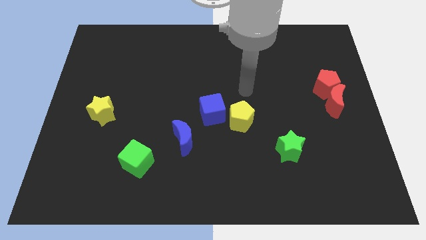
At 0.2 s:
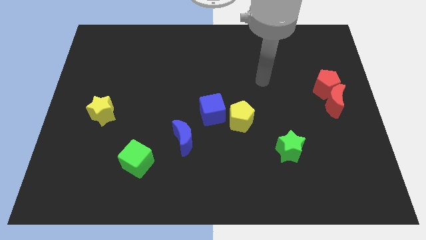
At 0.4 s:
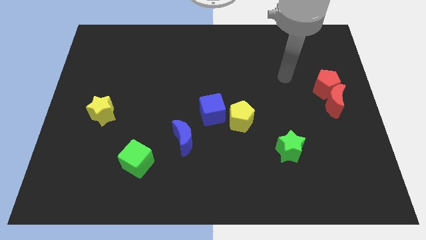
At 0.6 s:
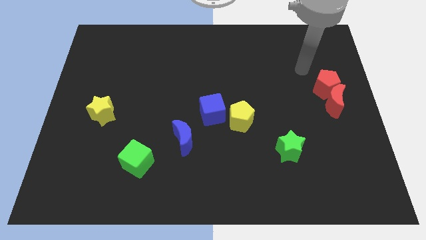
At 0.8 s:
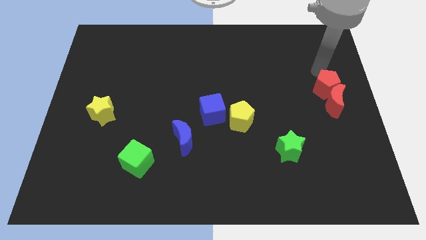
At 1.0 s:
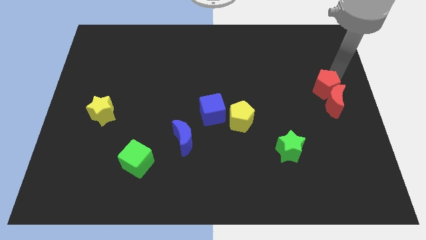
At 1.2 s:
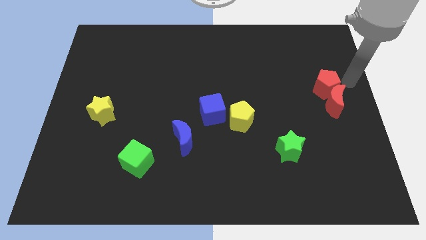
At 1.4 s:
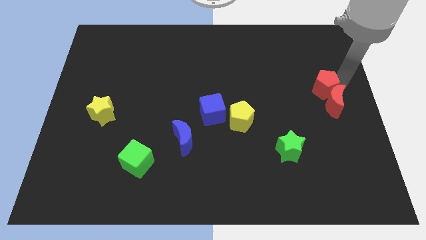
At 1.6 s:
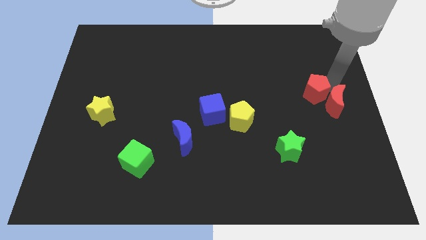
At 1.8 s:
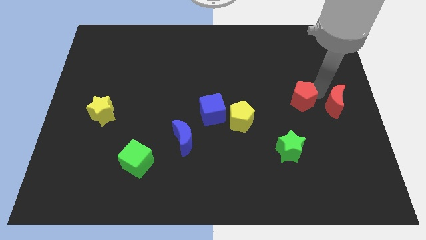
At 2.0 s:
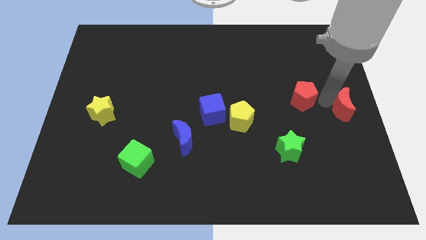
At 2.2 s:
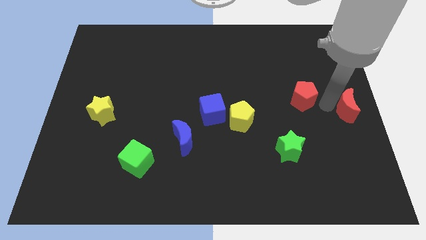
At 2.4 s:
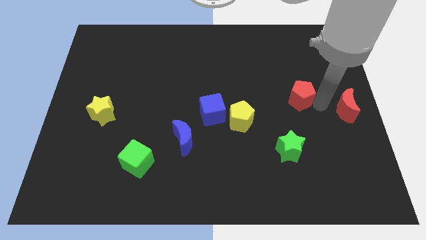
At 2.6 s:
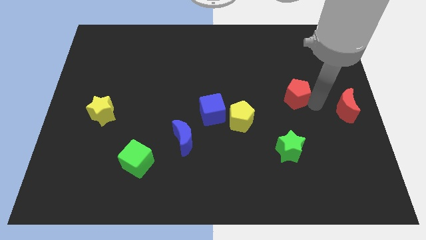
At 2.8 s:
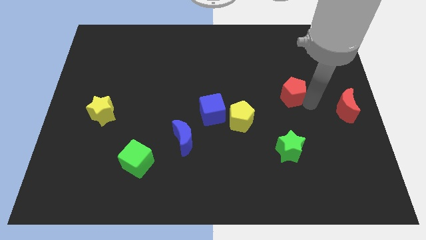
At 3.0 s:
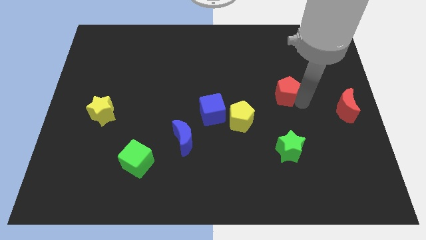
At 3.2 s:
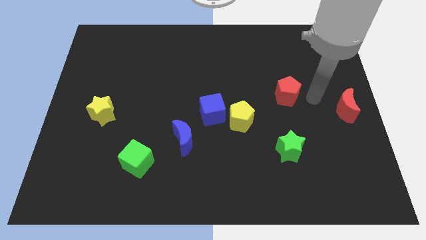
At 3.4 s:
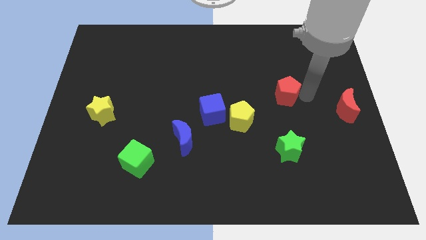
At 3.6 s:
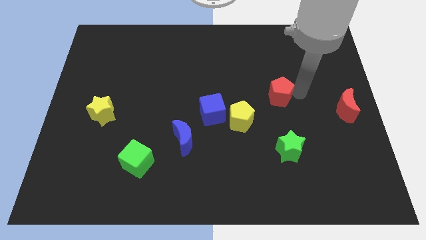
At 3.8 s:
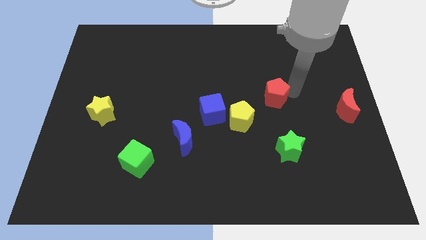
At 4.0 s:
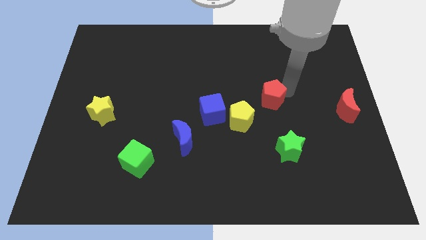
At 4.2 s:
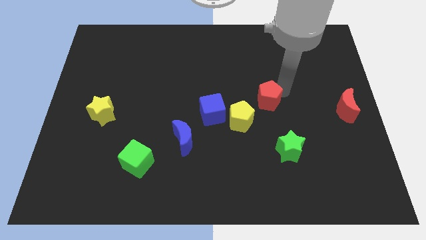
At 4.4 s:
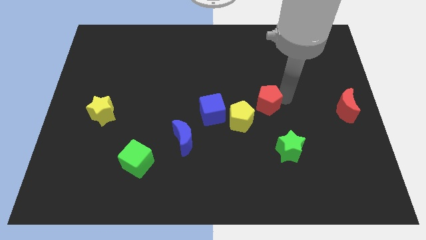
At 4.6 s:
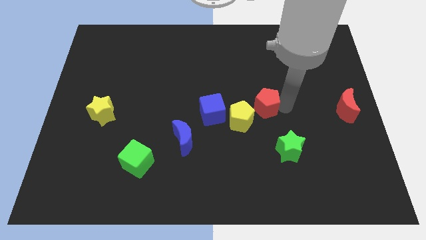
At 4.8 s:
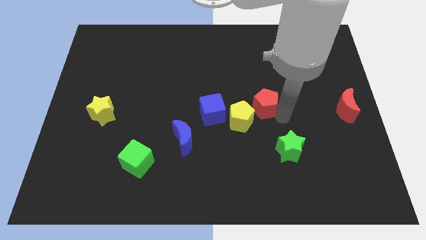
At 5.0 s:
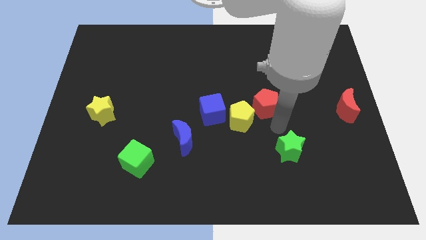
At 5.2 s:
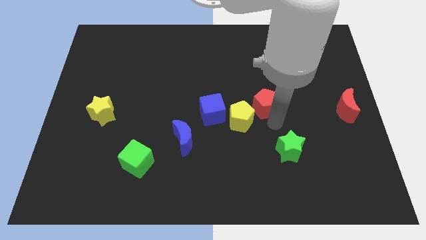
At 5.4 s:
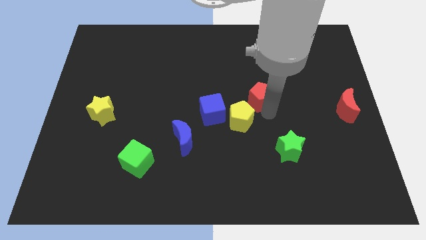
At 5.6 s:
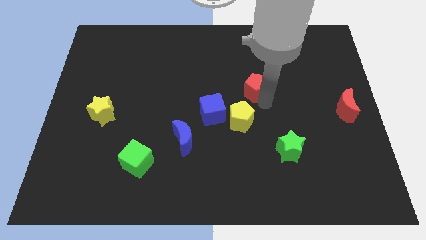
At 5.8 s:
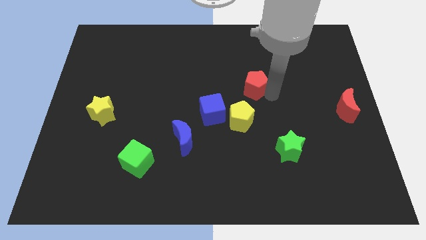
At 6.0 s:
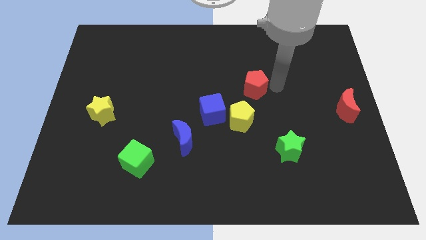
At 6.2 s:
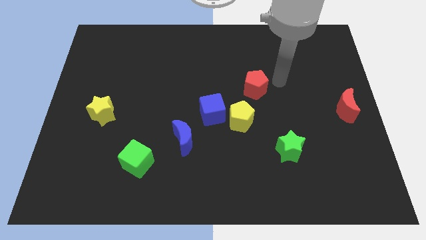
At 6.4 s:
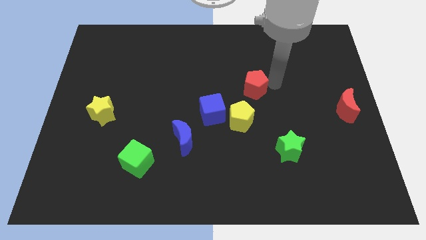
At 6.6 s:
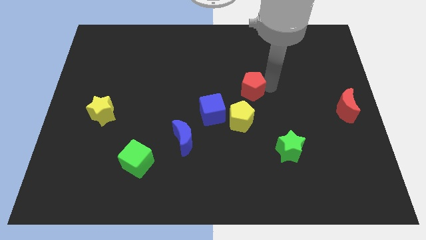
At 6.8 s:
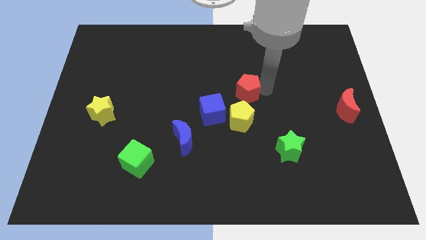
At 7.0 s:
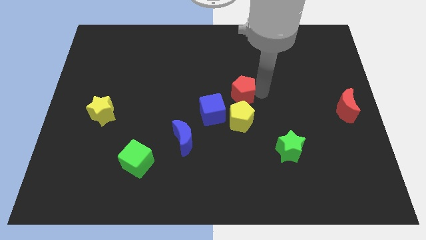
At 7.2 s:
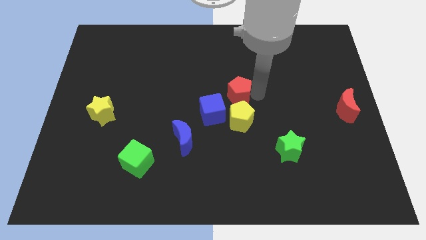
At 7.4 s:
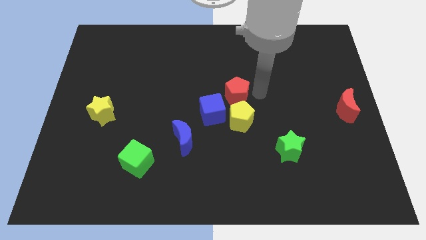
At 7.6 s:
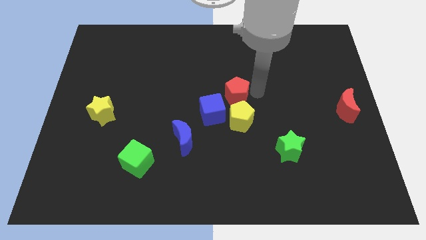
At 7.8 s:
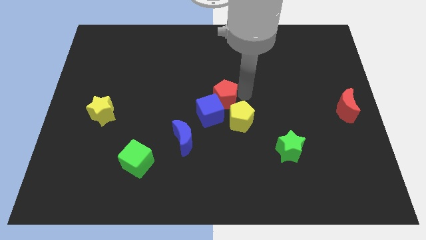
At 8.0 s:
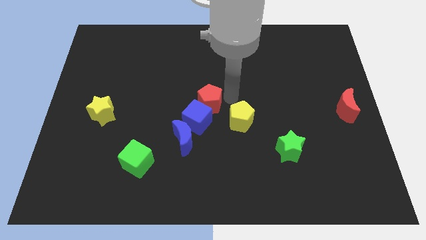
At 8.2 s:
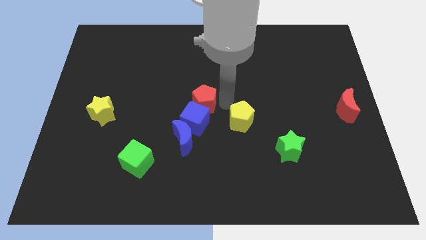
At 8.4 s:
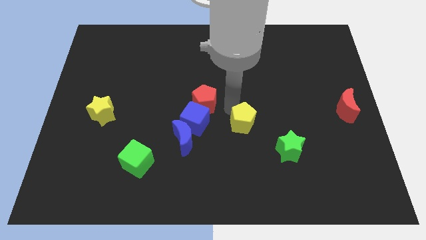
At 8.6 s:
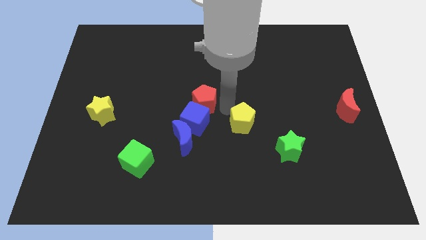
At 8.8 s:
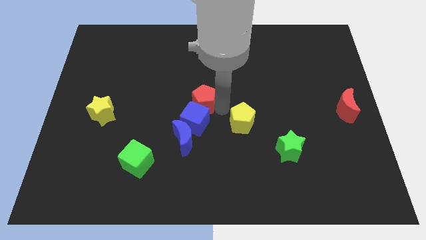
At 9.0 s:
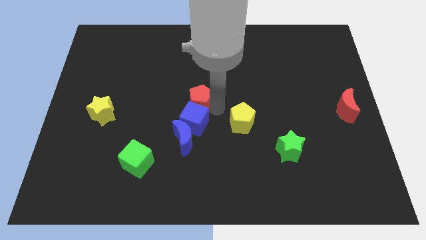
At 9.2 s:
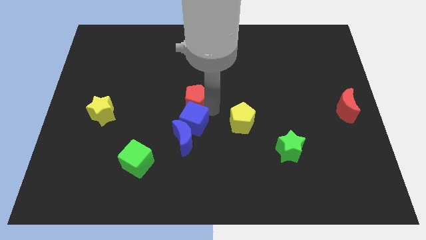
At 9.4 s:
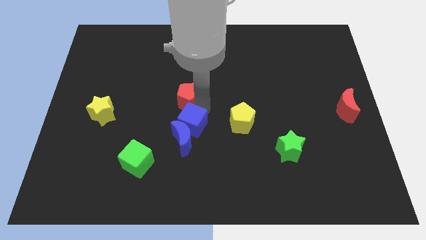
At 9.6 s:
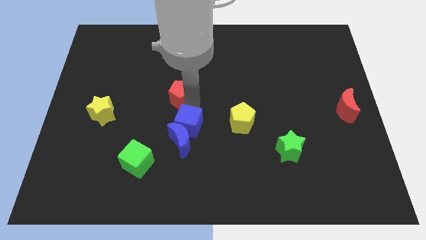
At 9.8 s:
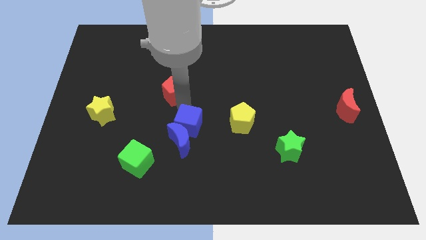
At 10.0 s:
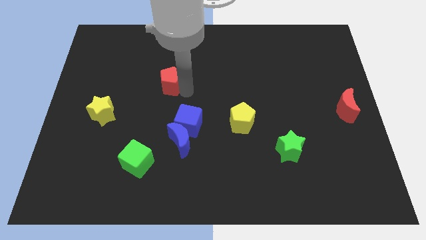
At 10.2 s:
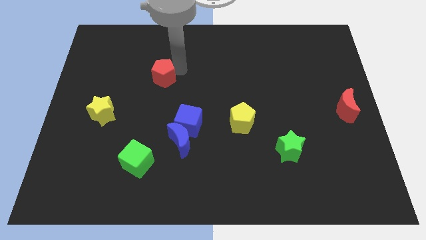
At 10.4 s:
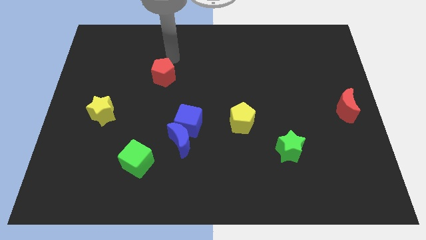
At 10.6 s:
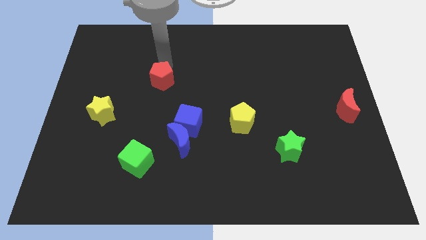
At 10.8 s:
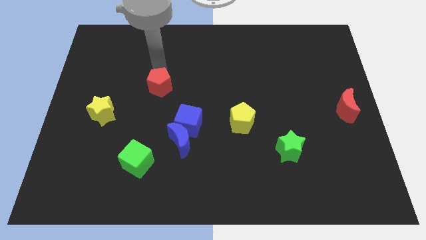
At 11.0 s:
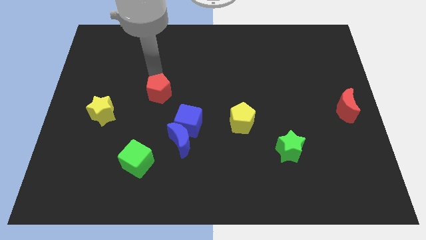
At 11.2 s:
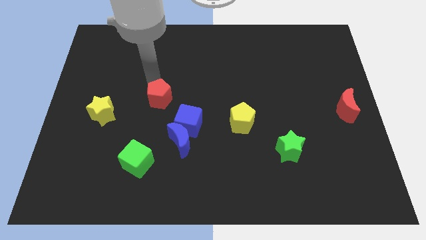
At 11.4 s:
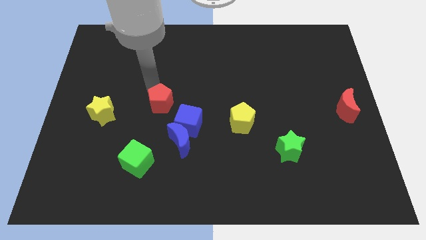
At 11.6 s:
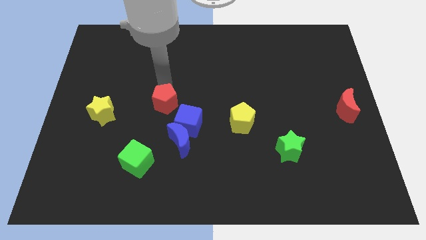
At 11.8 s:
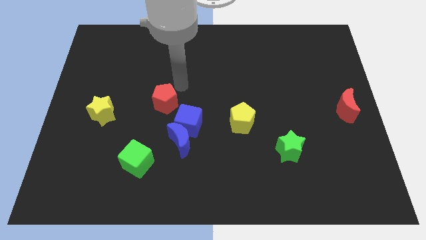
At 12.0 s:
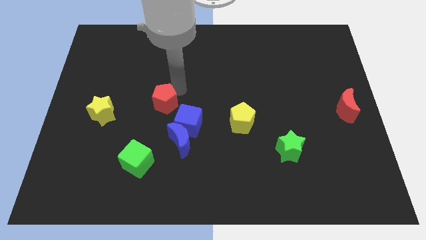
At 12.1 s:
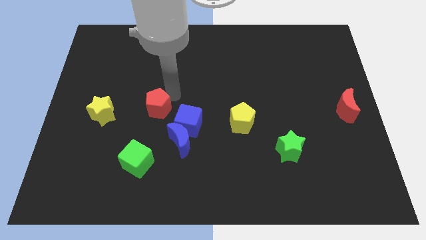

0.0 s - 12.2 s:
move the red pentagon to the left of the blue cube

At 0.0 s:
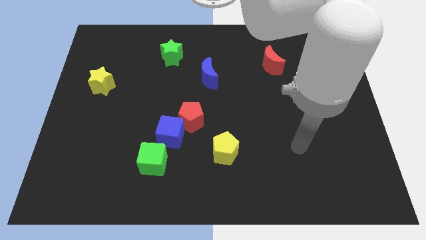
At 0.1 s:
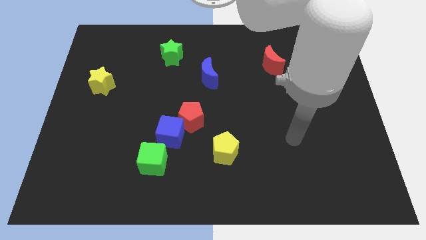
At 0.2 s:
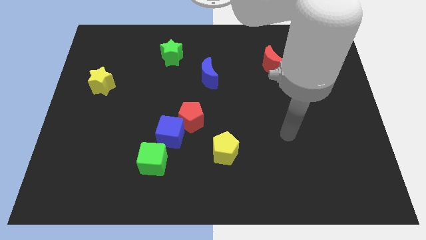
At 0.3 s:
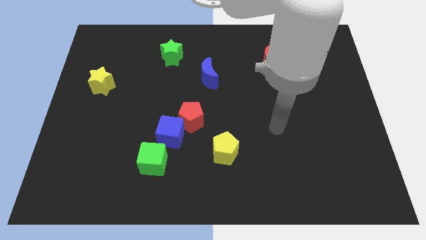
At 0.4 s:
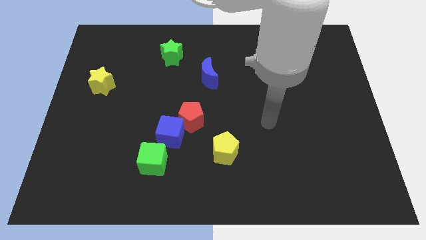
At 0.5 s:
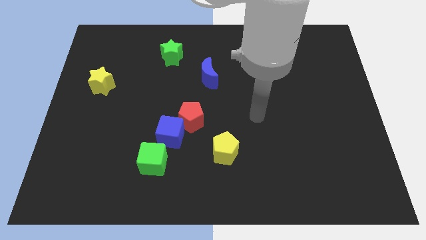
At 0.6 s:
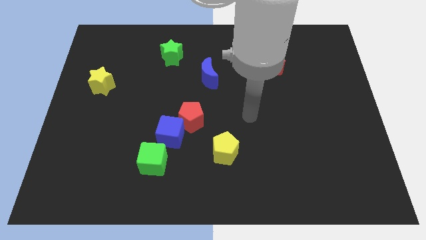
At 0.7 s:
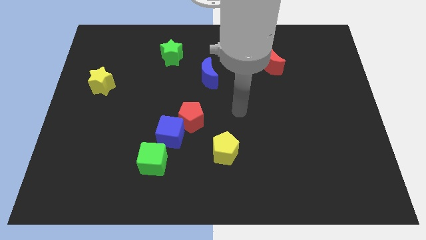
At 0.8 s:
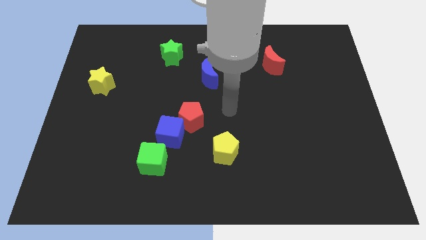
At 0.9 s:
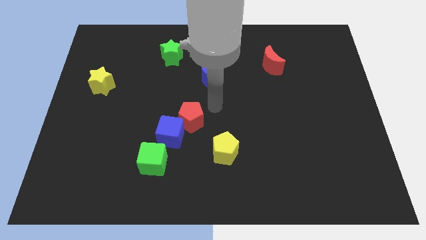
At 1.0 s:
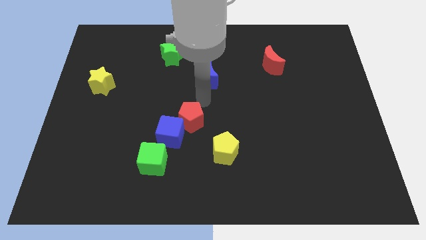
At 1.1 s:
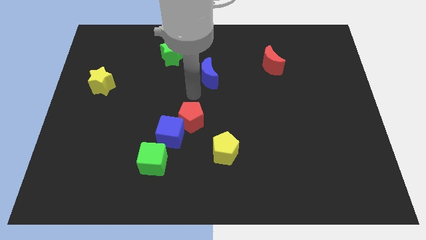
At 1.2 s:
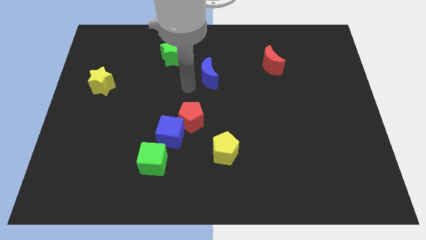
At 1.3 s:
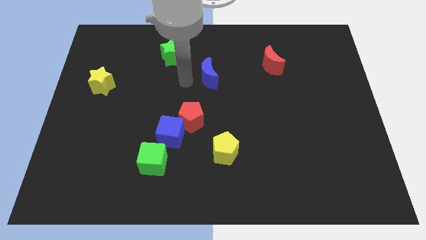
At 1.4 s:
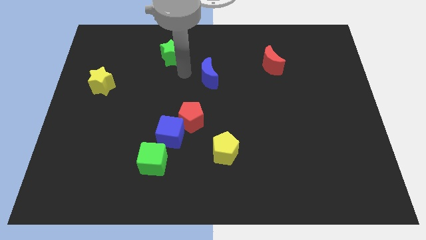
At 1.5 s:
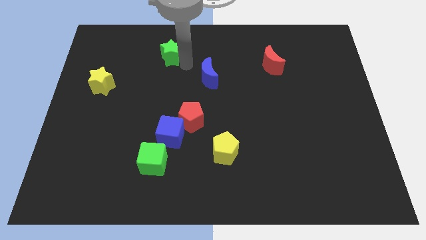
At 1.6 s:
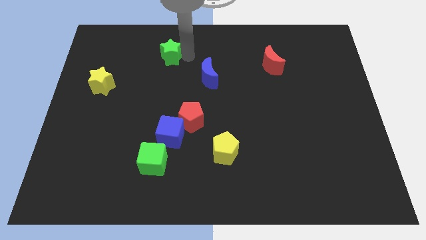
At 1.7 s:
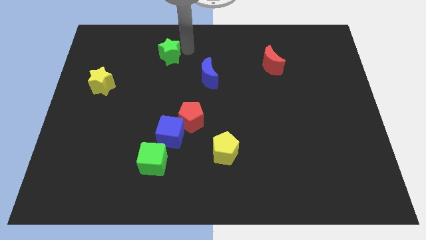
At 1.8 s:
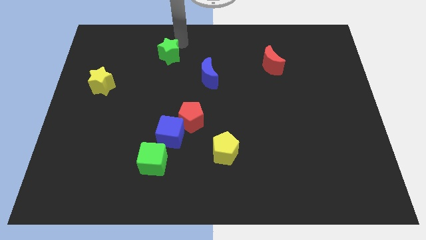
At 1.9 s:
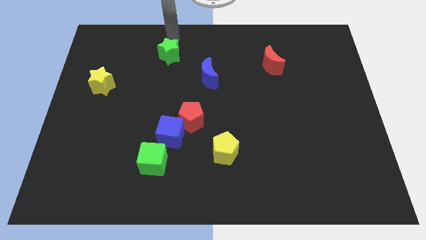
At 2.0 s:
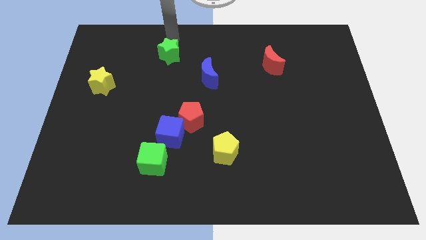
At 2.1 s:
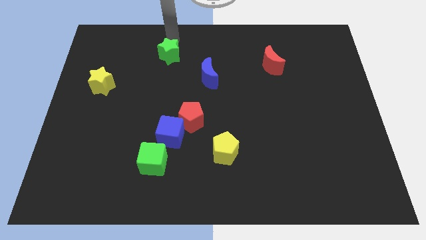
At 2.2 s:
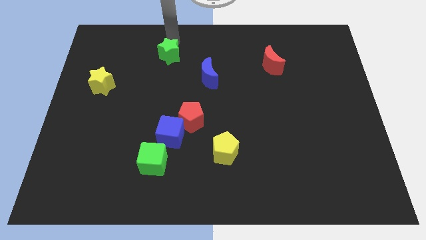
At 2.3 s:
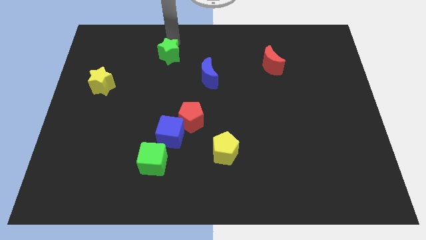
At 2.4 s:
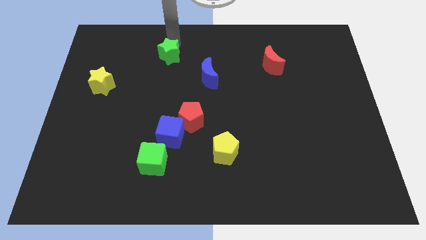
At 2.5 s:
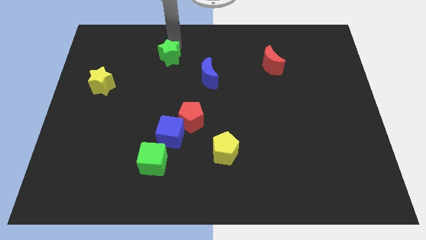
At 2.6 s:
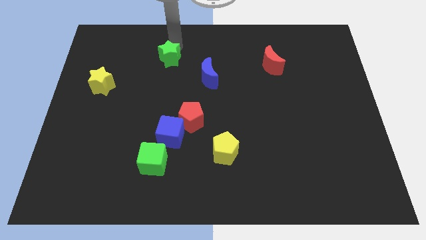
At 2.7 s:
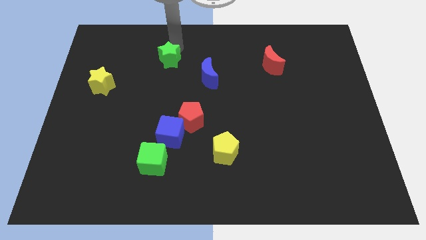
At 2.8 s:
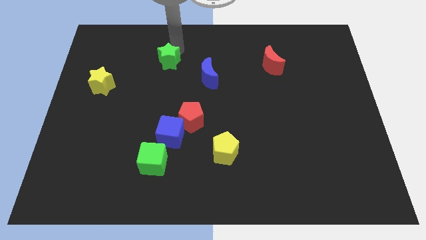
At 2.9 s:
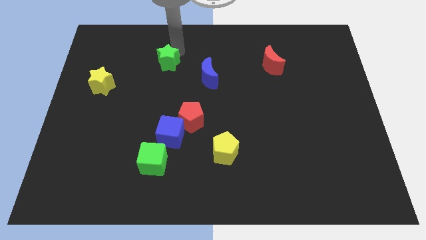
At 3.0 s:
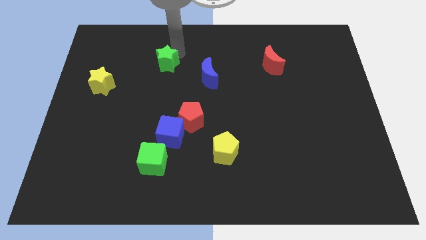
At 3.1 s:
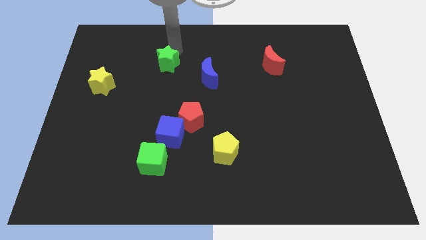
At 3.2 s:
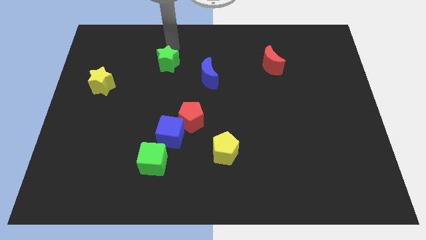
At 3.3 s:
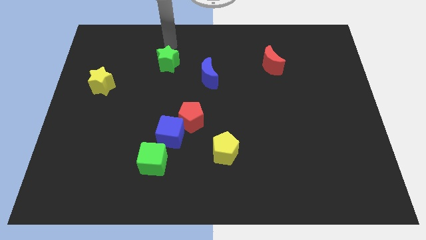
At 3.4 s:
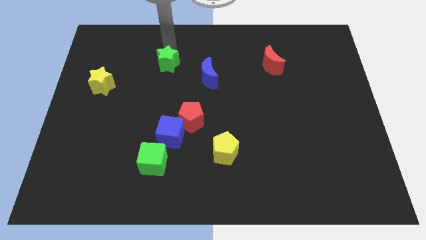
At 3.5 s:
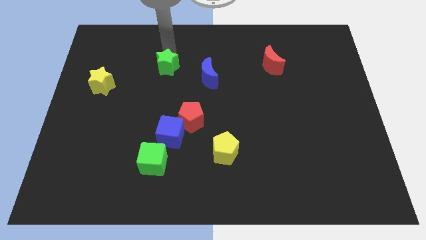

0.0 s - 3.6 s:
put the green star to the left of the blue moon
